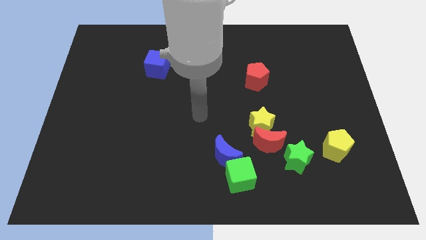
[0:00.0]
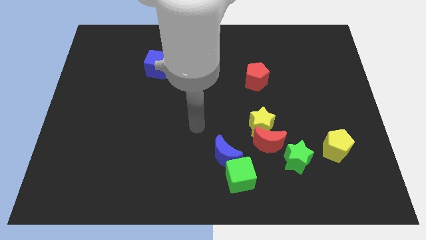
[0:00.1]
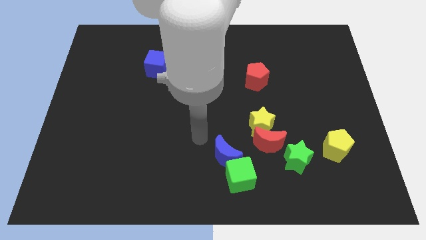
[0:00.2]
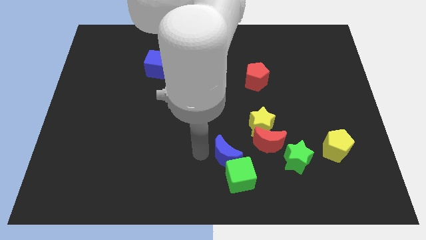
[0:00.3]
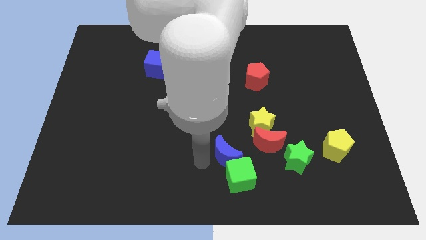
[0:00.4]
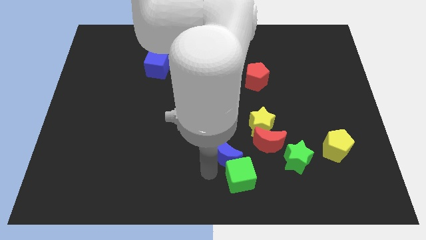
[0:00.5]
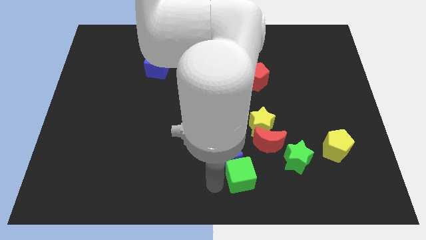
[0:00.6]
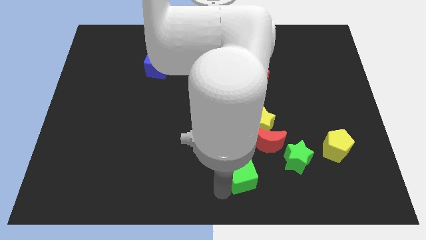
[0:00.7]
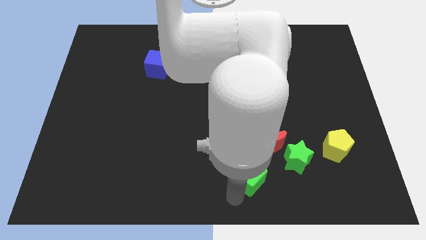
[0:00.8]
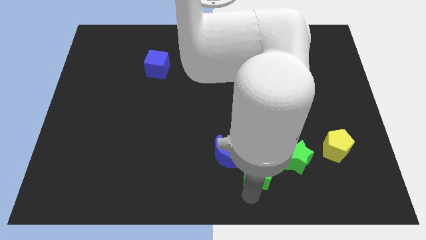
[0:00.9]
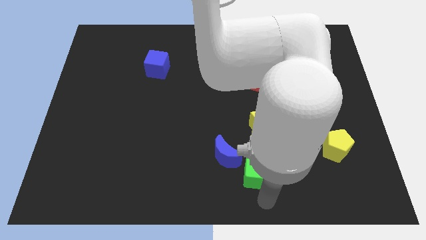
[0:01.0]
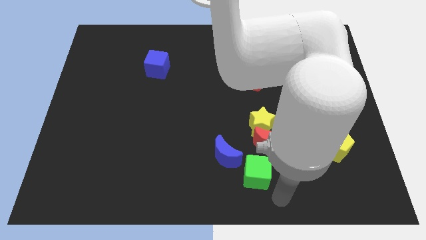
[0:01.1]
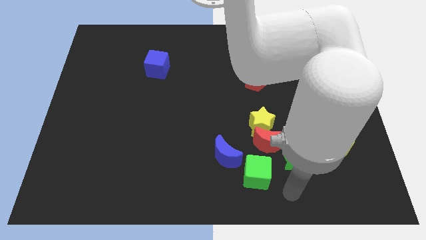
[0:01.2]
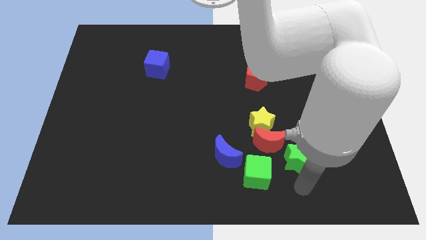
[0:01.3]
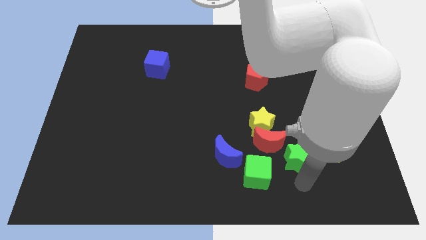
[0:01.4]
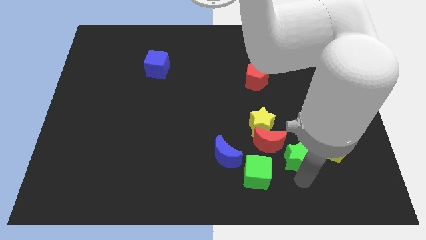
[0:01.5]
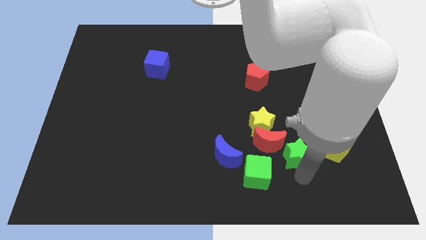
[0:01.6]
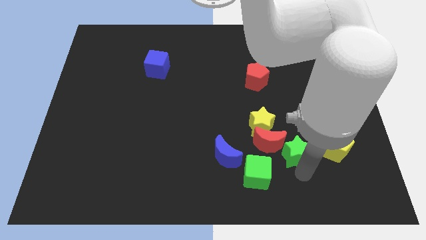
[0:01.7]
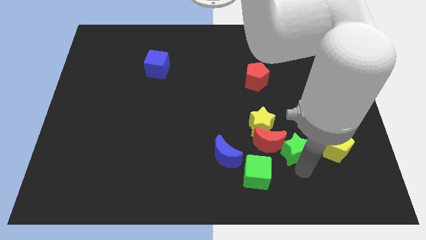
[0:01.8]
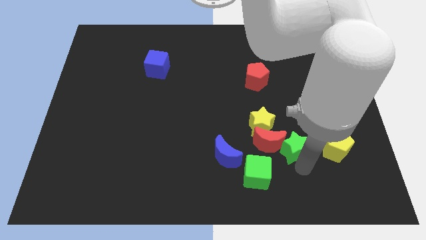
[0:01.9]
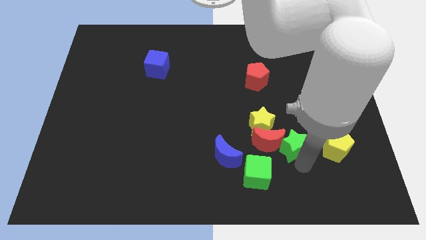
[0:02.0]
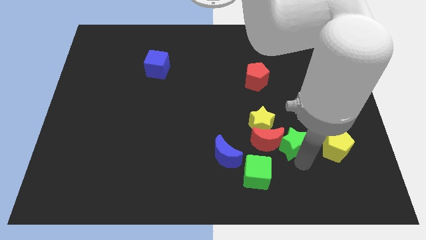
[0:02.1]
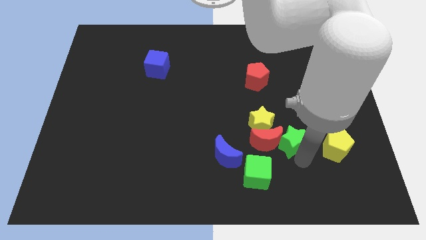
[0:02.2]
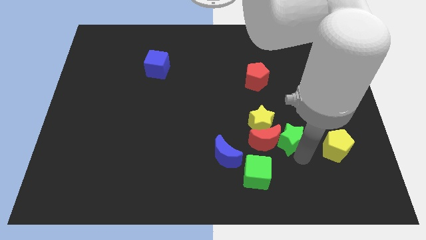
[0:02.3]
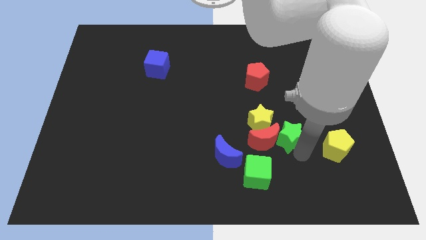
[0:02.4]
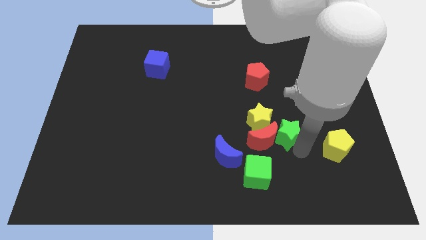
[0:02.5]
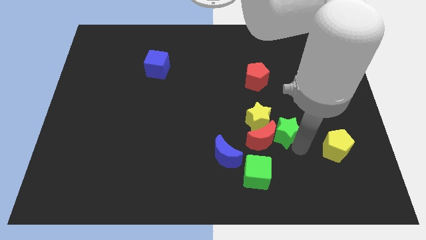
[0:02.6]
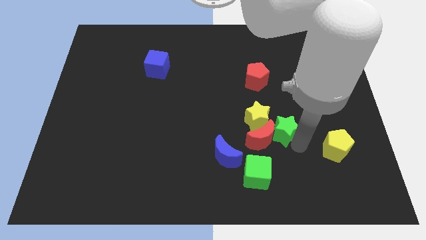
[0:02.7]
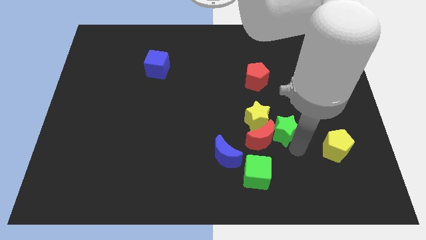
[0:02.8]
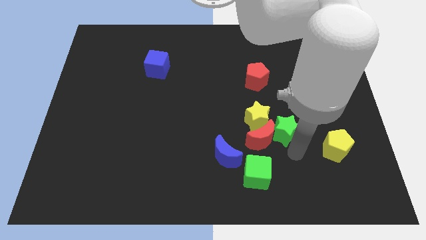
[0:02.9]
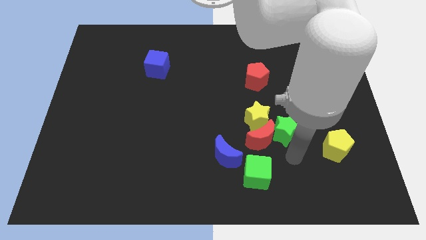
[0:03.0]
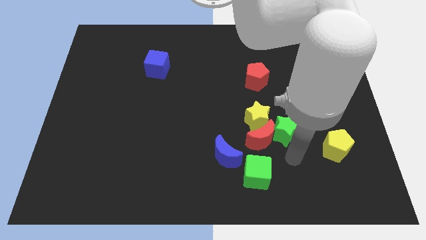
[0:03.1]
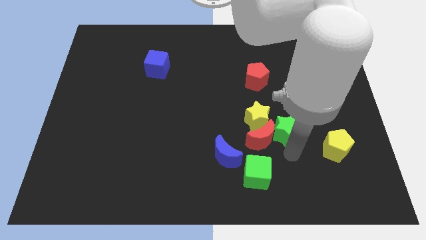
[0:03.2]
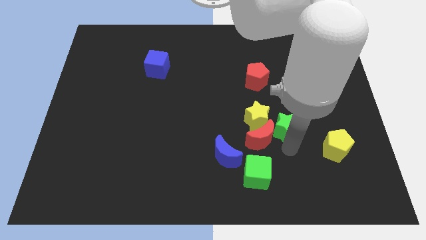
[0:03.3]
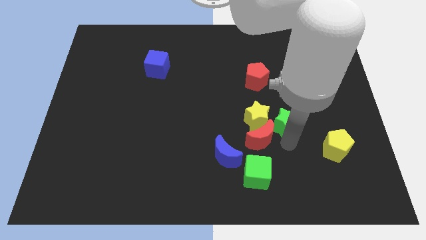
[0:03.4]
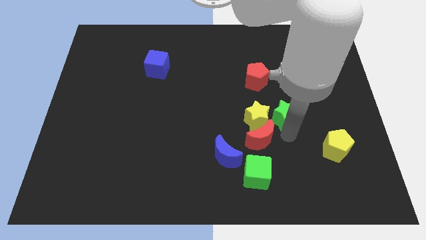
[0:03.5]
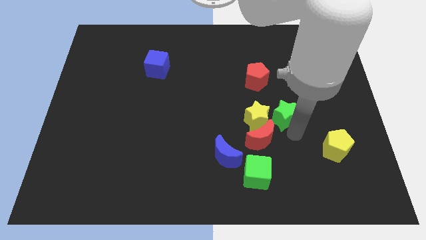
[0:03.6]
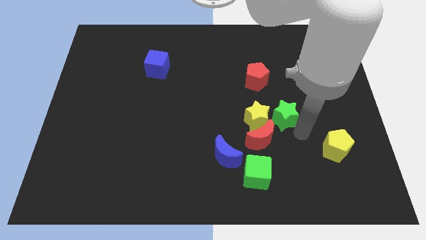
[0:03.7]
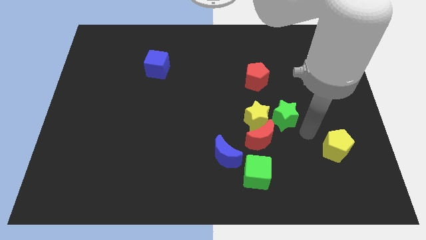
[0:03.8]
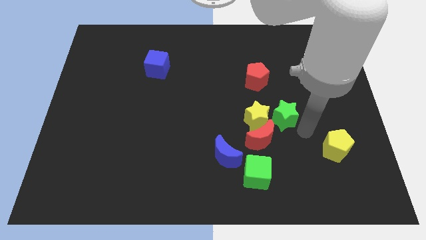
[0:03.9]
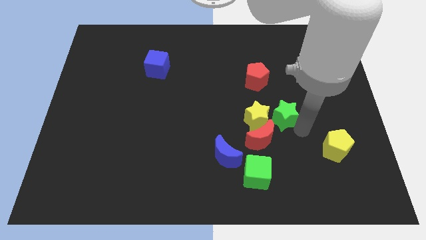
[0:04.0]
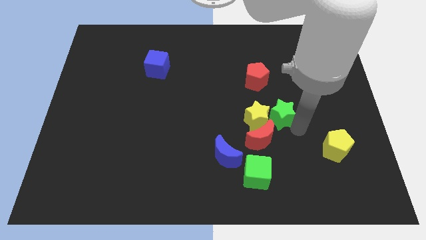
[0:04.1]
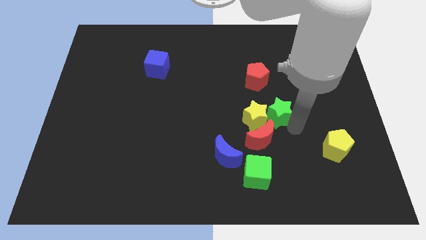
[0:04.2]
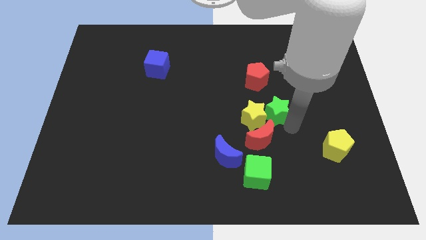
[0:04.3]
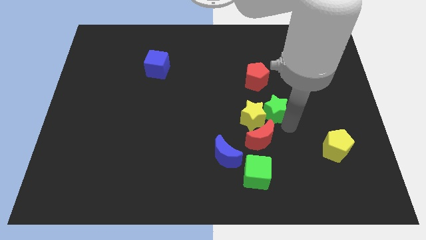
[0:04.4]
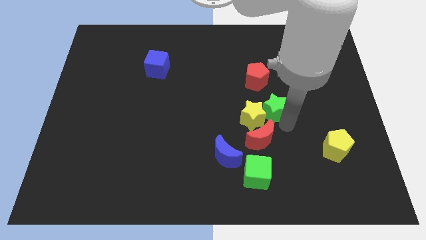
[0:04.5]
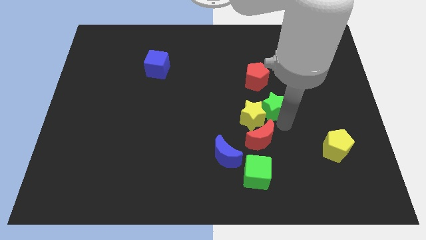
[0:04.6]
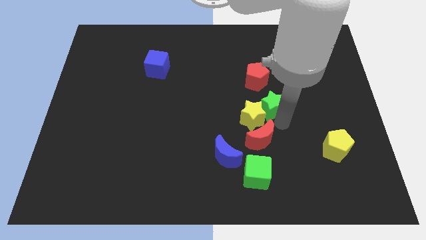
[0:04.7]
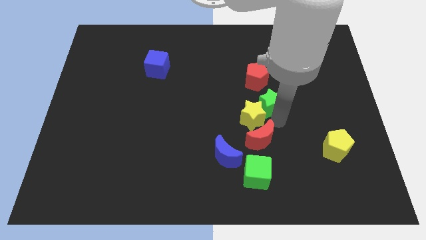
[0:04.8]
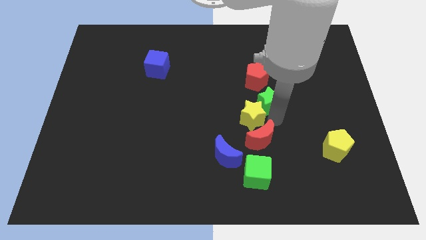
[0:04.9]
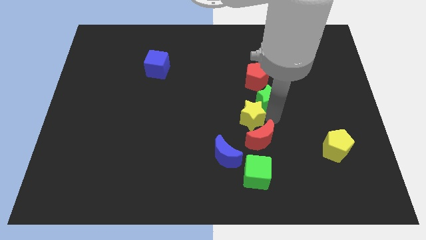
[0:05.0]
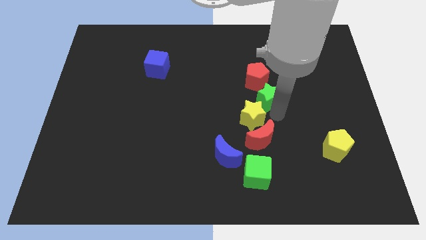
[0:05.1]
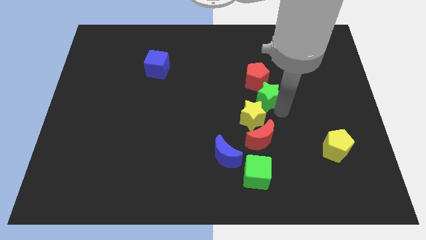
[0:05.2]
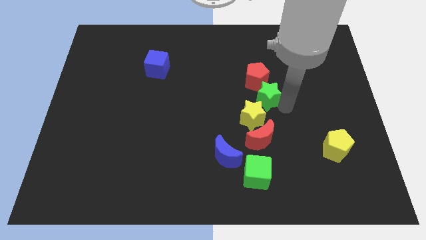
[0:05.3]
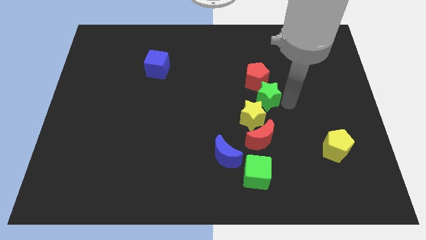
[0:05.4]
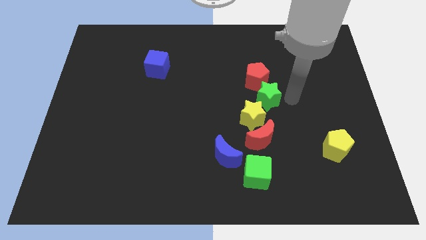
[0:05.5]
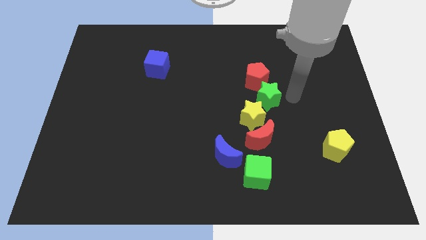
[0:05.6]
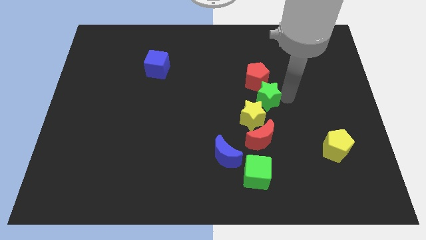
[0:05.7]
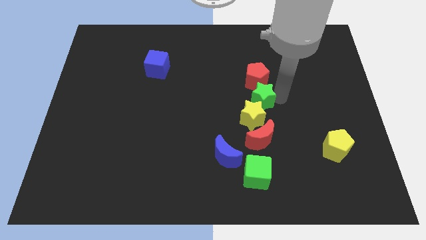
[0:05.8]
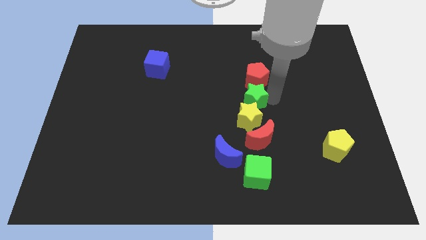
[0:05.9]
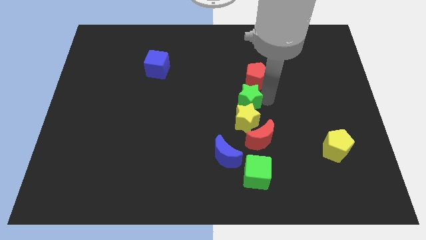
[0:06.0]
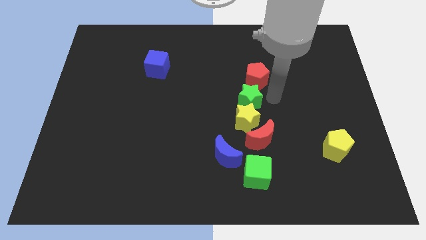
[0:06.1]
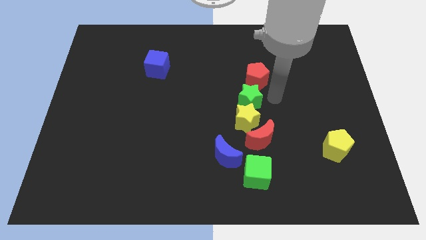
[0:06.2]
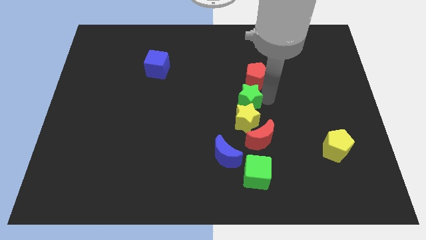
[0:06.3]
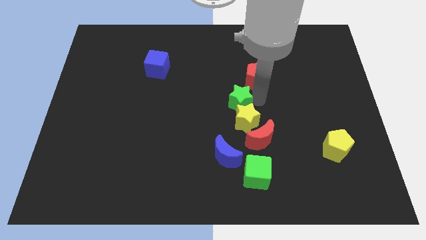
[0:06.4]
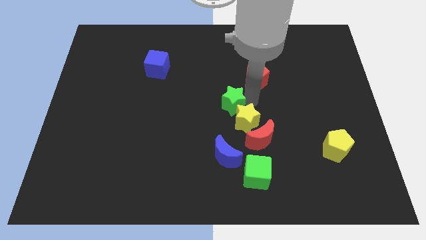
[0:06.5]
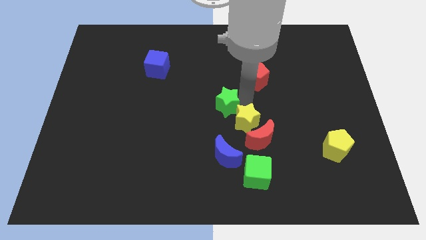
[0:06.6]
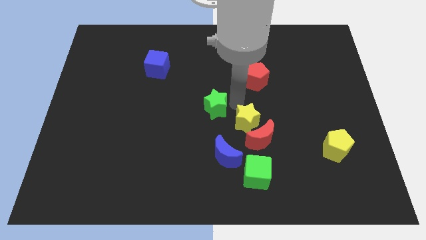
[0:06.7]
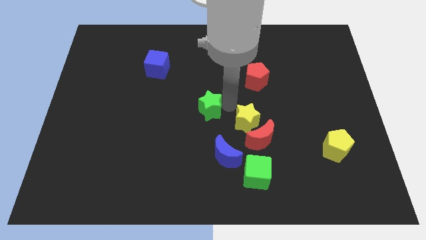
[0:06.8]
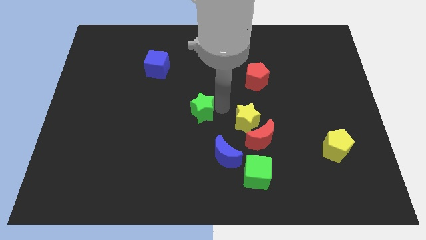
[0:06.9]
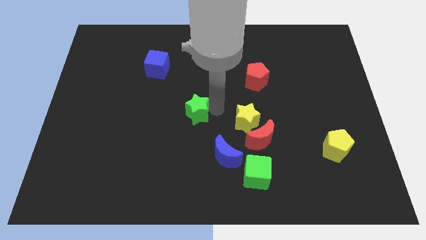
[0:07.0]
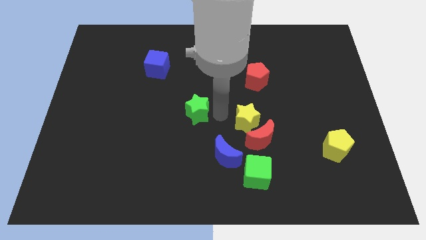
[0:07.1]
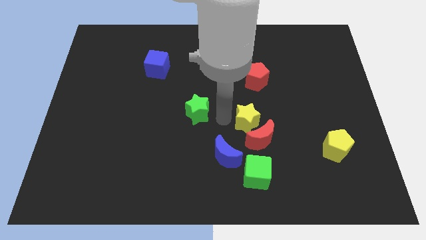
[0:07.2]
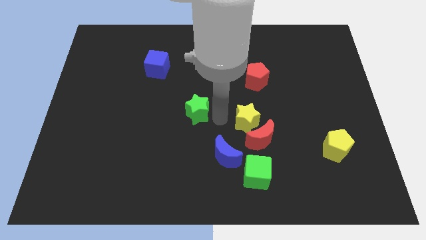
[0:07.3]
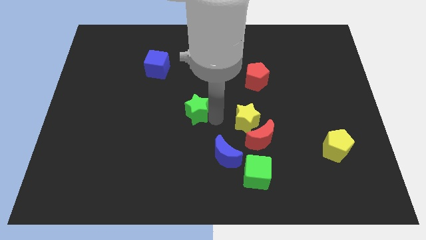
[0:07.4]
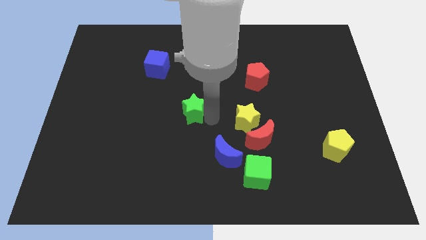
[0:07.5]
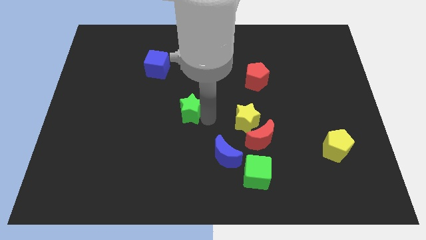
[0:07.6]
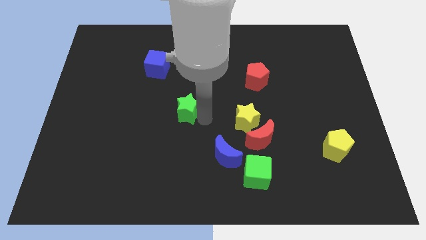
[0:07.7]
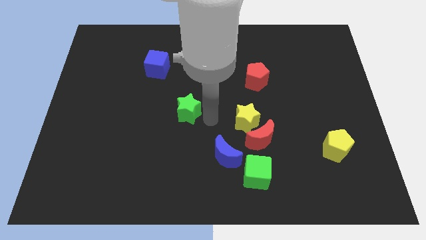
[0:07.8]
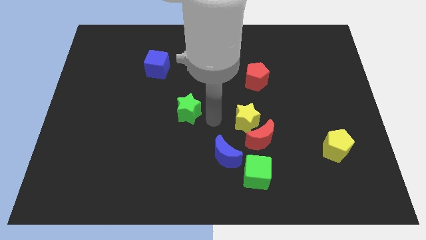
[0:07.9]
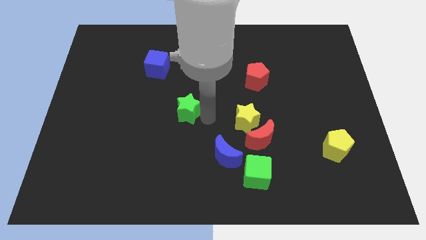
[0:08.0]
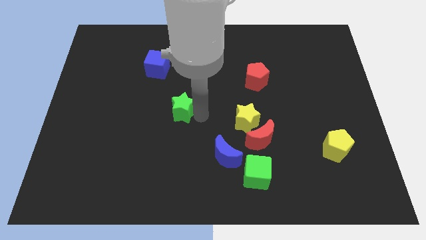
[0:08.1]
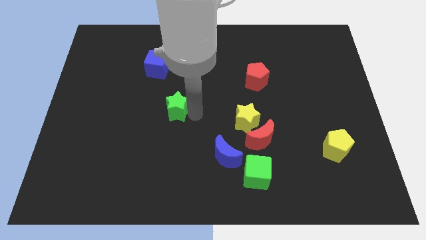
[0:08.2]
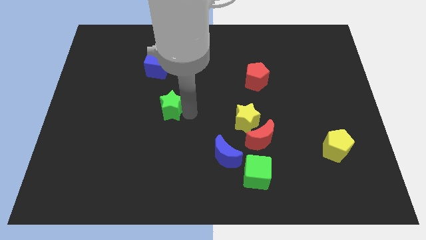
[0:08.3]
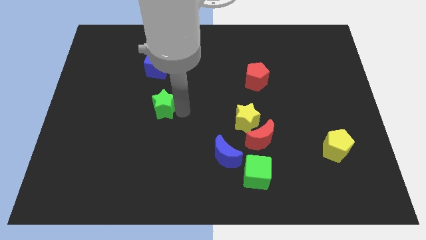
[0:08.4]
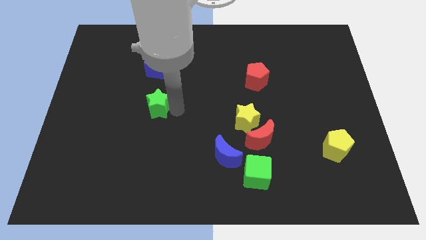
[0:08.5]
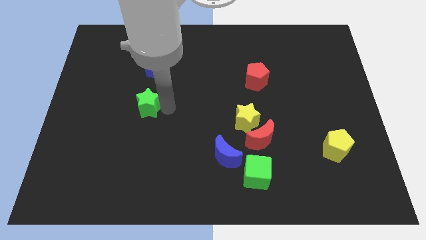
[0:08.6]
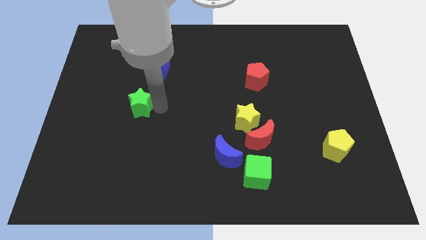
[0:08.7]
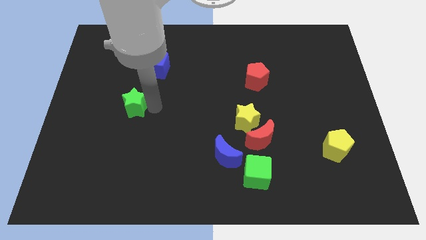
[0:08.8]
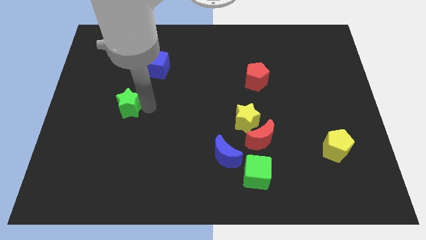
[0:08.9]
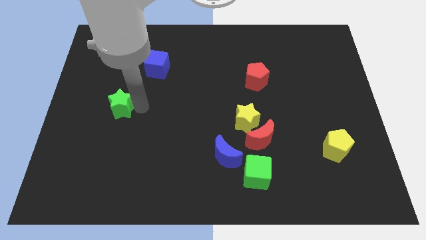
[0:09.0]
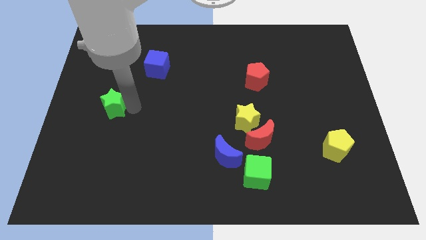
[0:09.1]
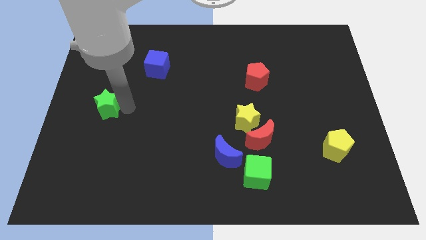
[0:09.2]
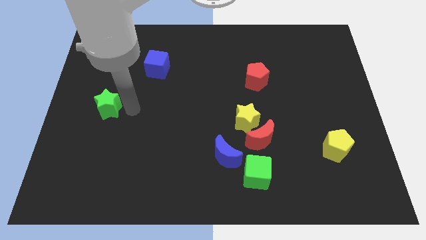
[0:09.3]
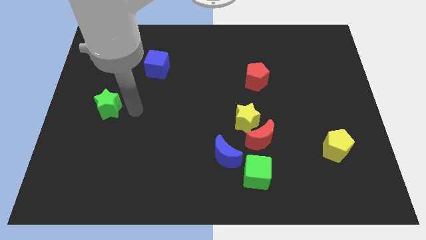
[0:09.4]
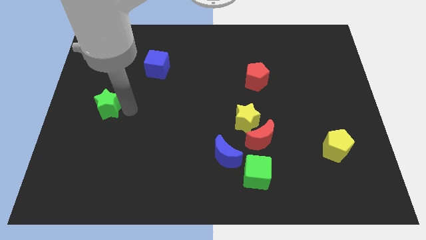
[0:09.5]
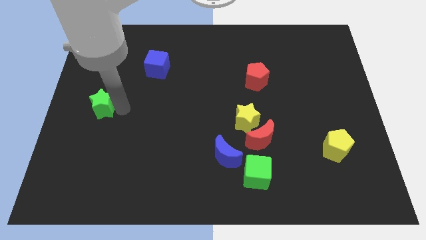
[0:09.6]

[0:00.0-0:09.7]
move the green star to the left side of the board
